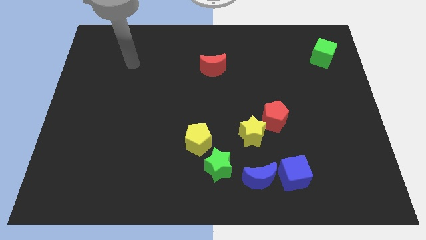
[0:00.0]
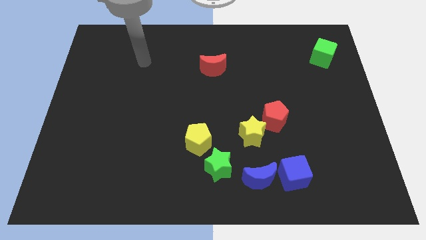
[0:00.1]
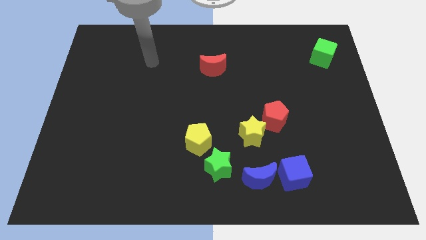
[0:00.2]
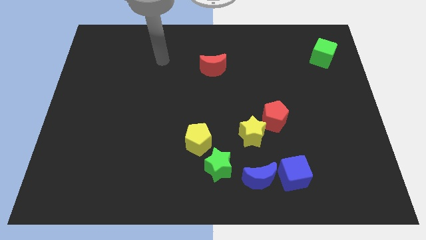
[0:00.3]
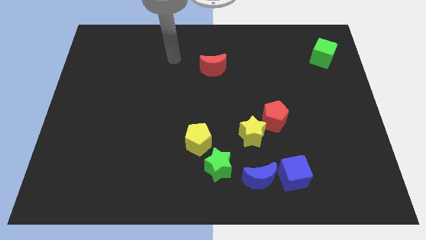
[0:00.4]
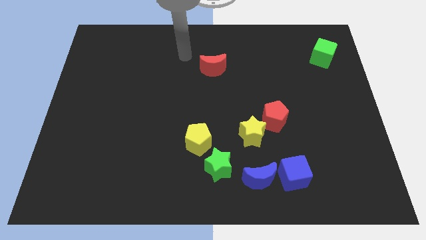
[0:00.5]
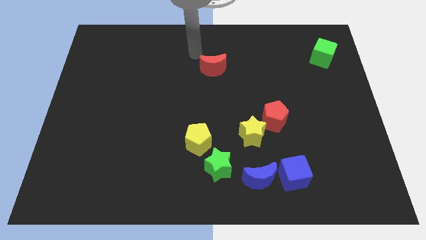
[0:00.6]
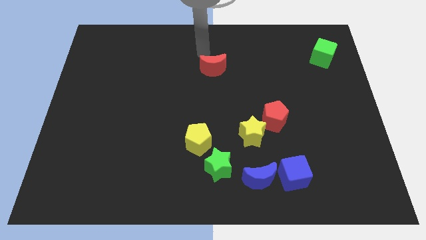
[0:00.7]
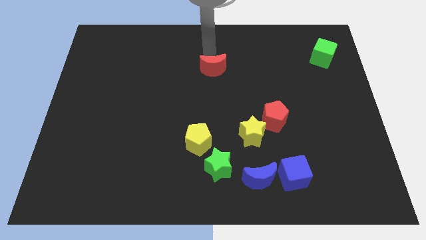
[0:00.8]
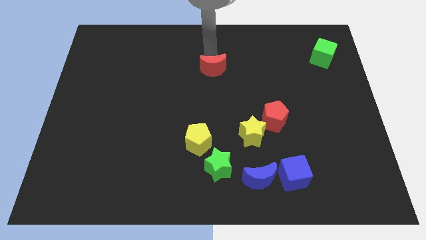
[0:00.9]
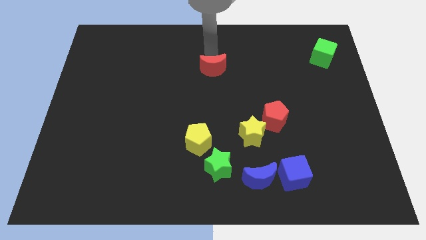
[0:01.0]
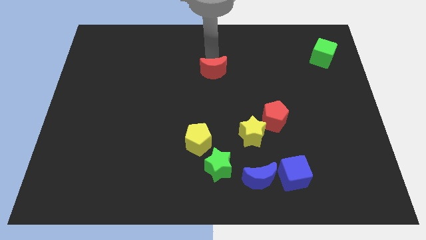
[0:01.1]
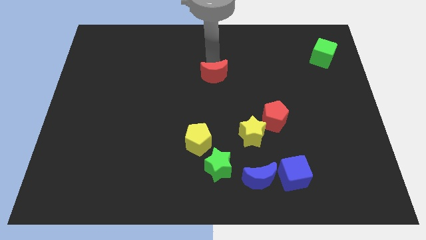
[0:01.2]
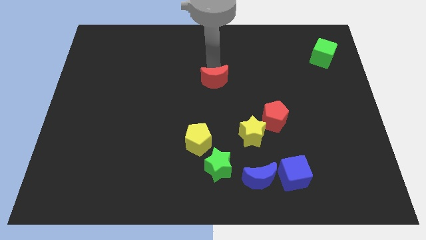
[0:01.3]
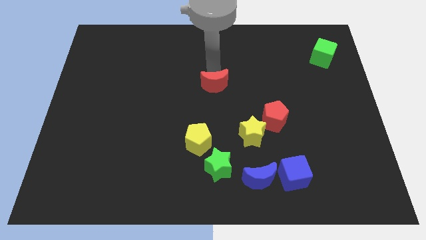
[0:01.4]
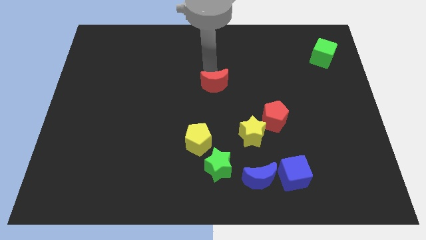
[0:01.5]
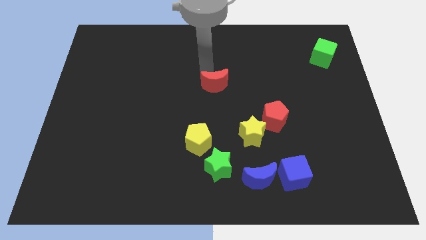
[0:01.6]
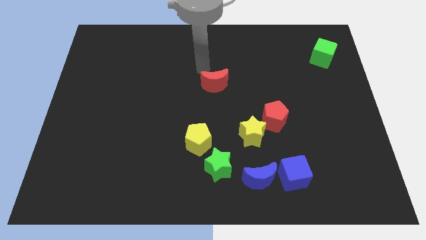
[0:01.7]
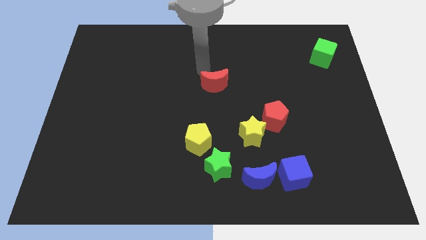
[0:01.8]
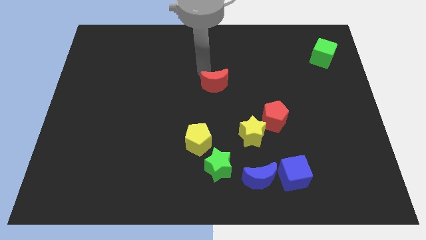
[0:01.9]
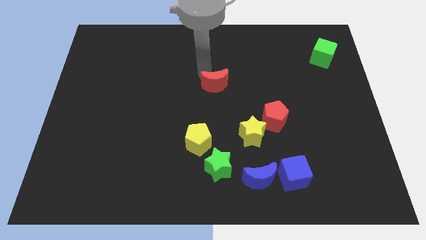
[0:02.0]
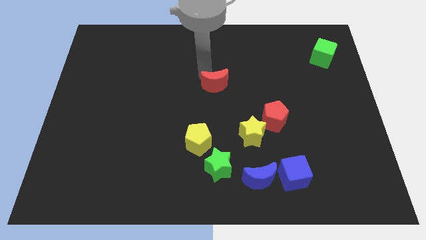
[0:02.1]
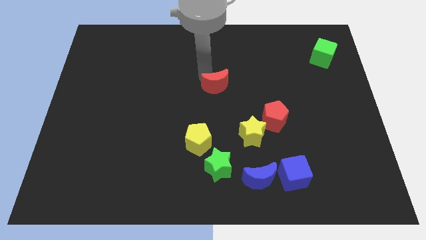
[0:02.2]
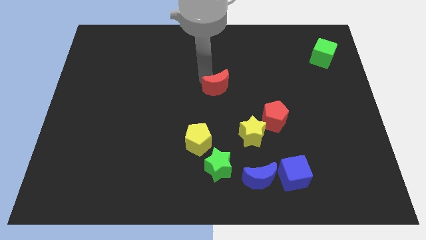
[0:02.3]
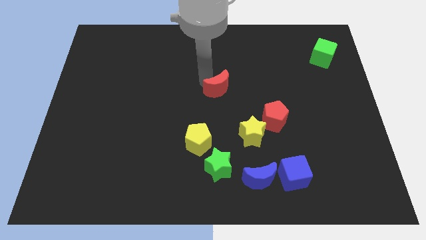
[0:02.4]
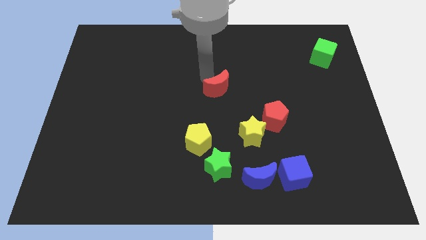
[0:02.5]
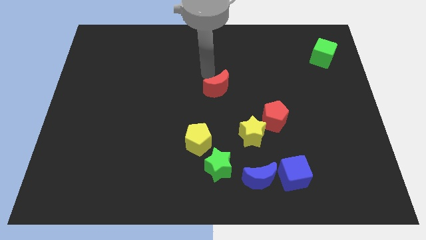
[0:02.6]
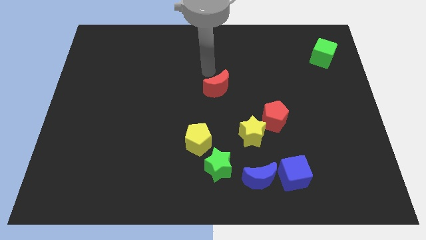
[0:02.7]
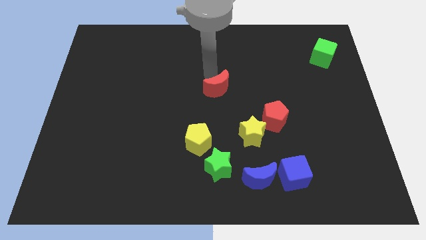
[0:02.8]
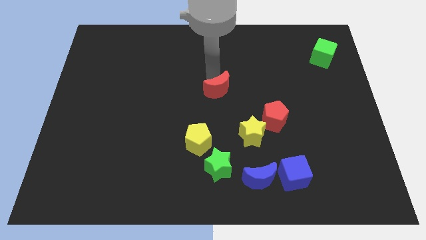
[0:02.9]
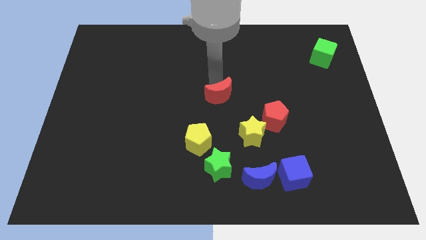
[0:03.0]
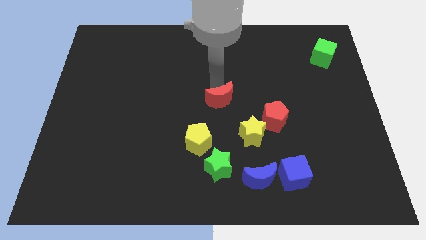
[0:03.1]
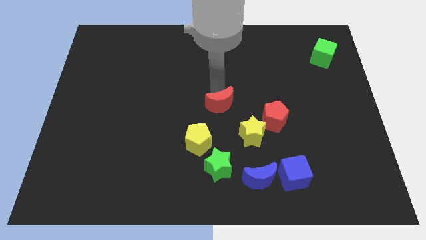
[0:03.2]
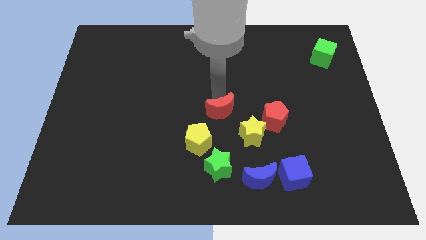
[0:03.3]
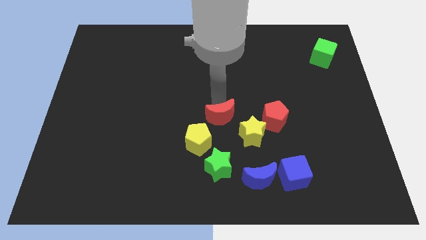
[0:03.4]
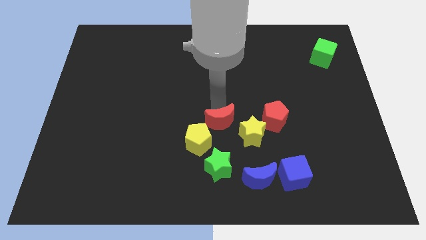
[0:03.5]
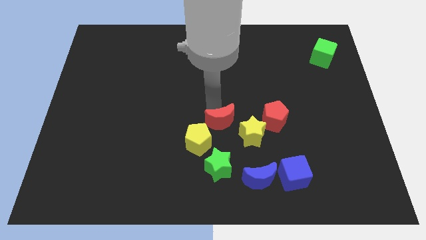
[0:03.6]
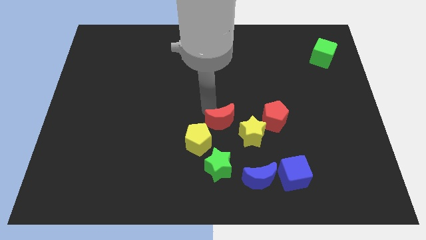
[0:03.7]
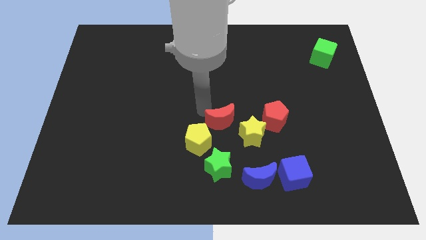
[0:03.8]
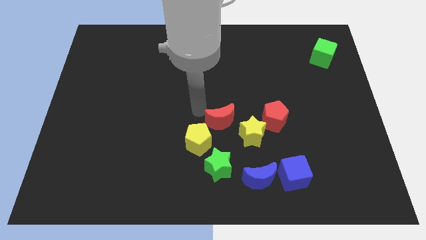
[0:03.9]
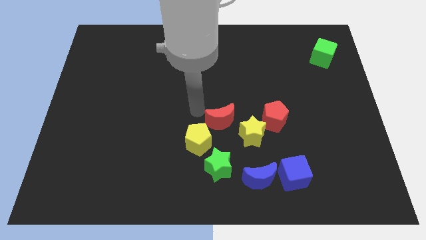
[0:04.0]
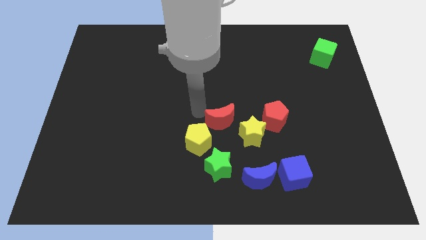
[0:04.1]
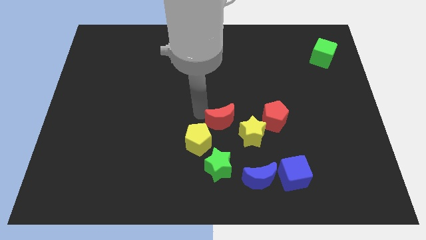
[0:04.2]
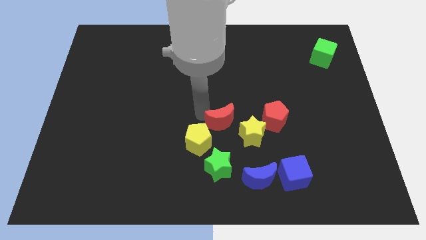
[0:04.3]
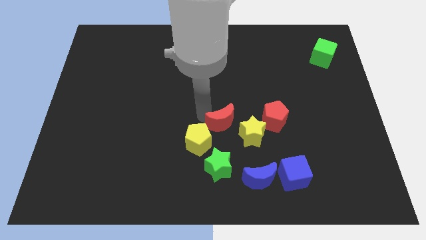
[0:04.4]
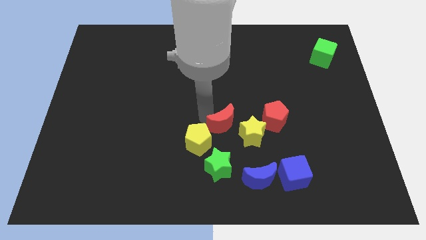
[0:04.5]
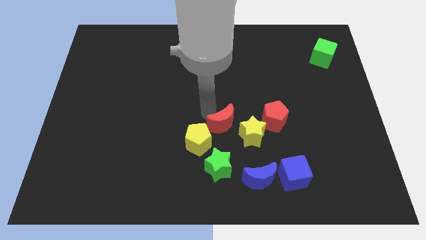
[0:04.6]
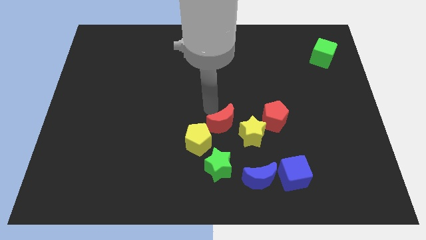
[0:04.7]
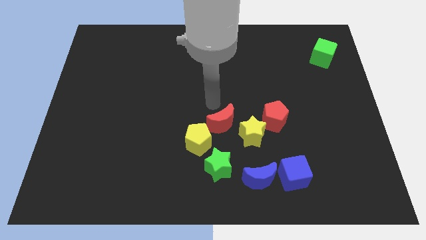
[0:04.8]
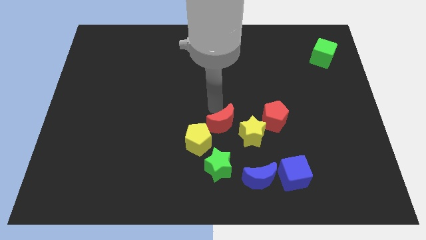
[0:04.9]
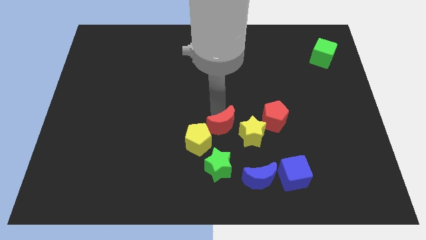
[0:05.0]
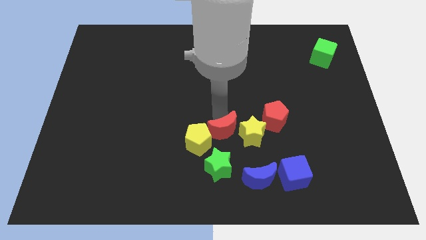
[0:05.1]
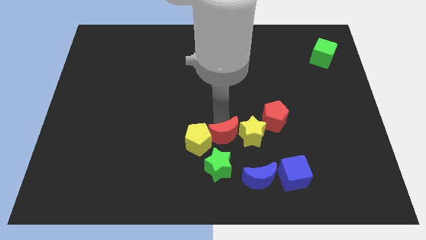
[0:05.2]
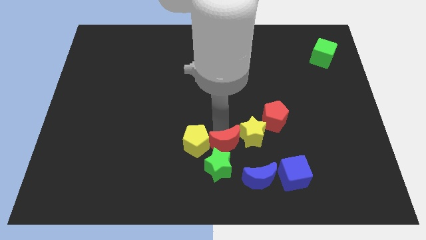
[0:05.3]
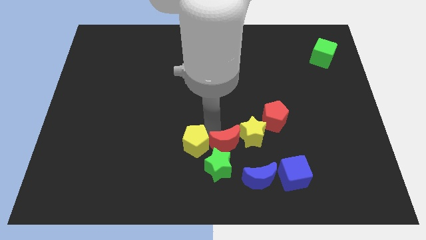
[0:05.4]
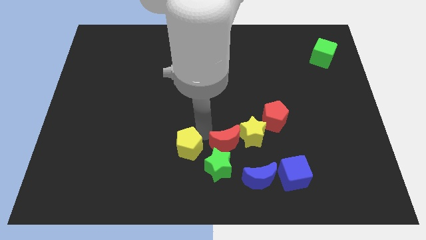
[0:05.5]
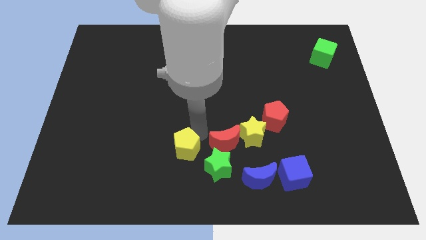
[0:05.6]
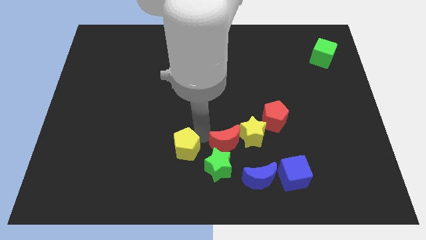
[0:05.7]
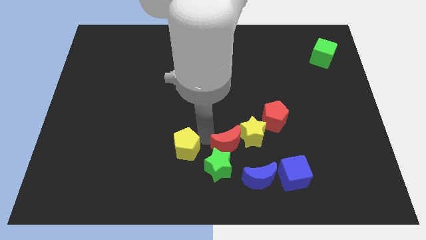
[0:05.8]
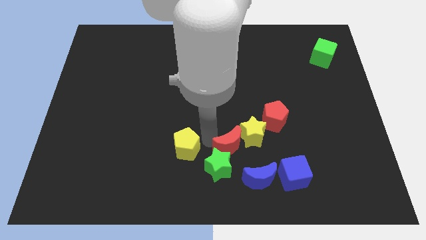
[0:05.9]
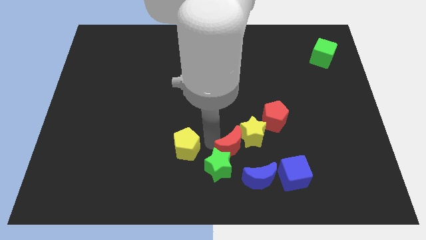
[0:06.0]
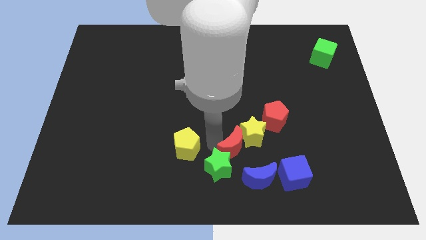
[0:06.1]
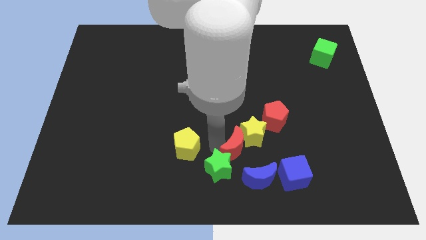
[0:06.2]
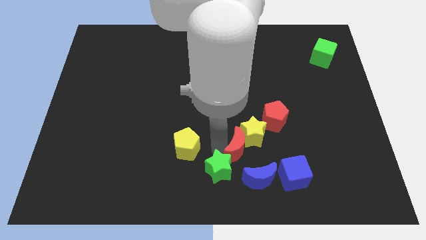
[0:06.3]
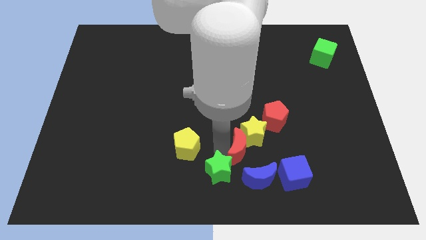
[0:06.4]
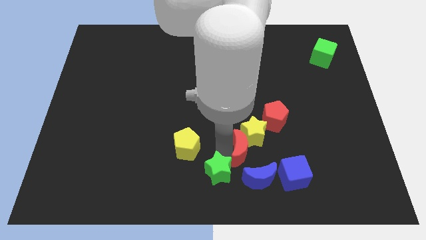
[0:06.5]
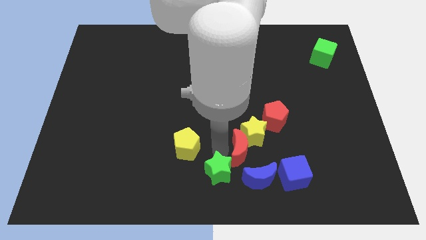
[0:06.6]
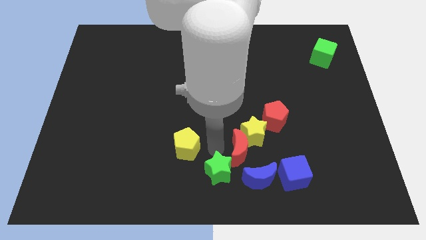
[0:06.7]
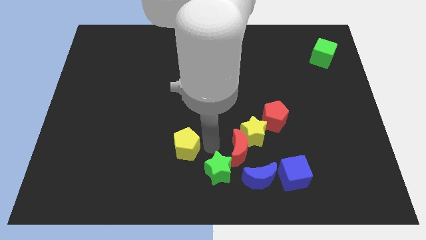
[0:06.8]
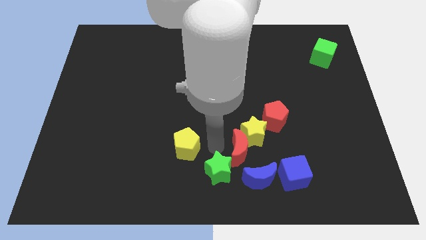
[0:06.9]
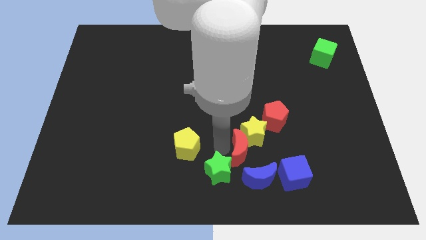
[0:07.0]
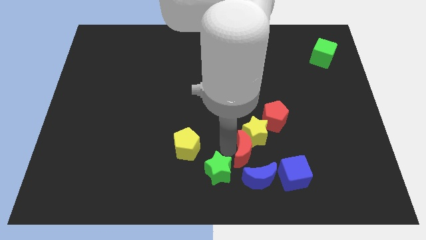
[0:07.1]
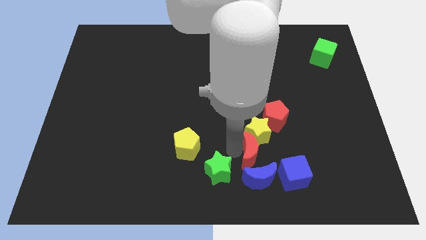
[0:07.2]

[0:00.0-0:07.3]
slide the red moon to the bottom right of the yellow star
